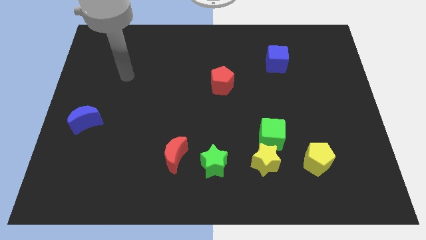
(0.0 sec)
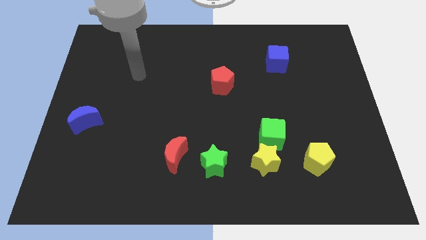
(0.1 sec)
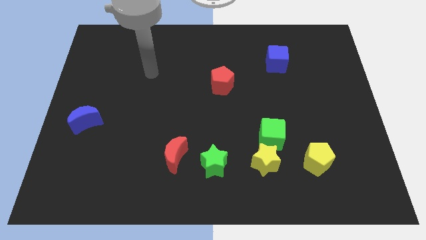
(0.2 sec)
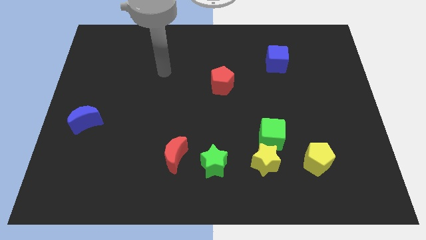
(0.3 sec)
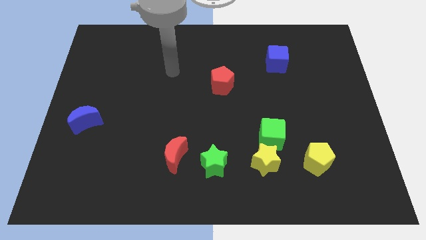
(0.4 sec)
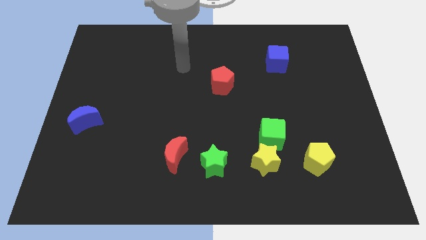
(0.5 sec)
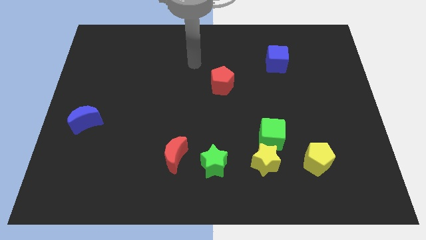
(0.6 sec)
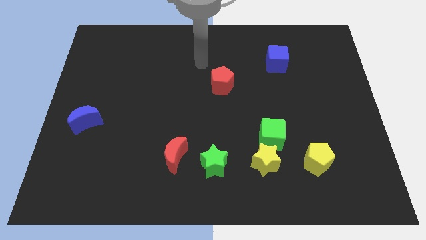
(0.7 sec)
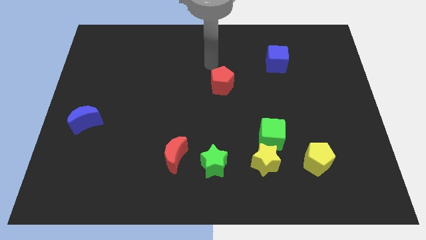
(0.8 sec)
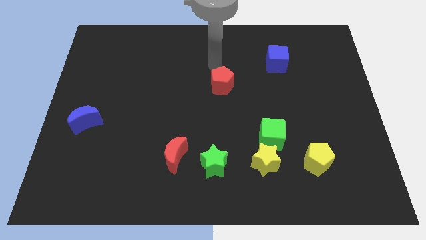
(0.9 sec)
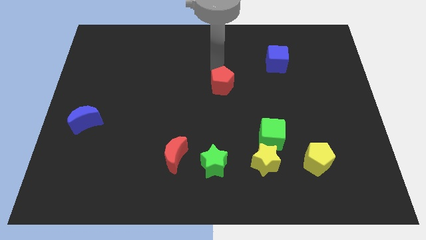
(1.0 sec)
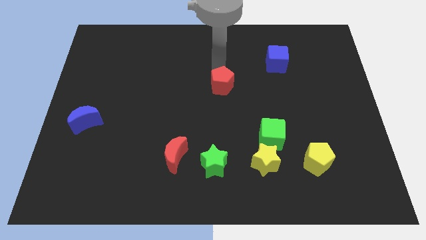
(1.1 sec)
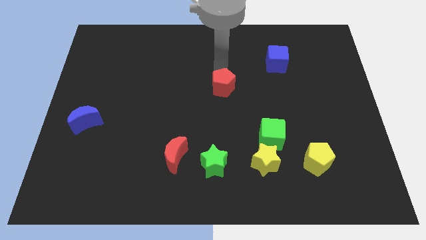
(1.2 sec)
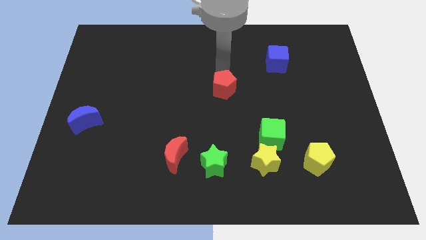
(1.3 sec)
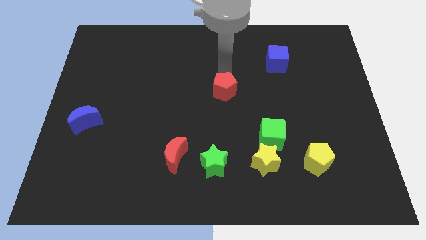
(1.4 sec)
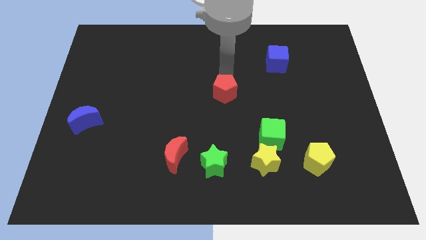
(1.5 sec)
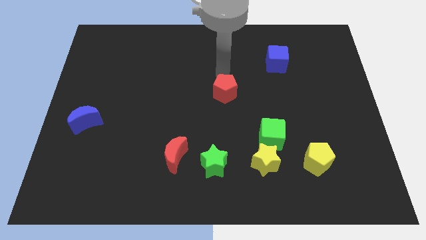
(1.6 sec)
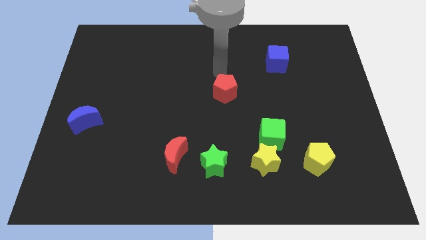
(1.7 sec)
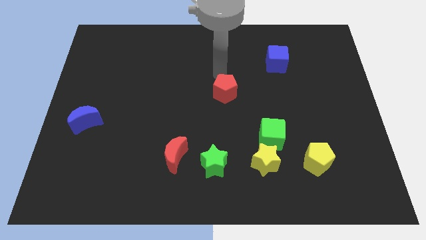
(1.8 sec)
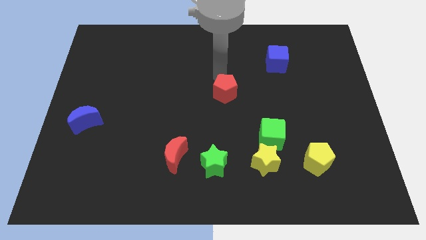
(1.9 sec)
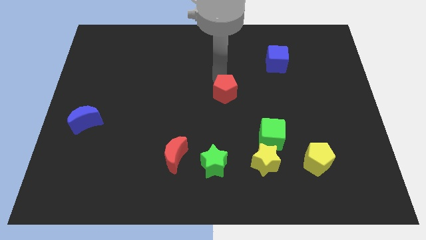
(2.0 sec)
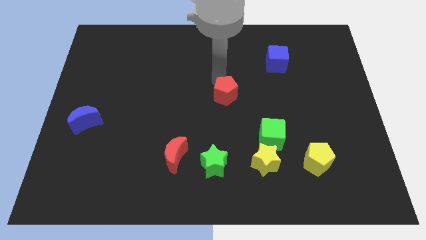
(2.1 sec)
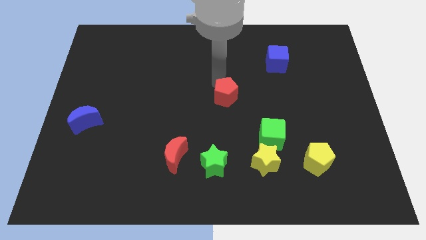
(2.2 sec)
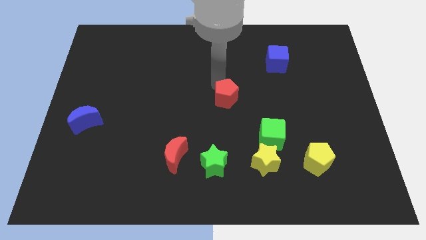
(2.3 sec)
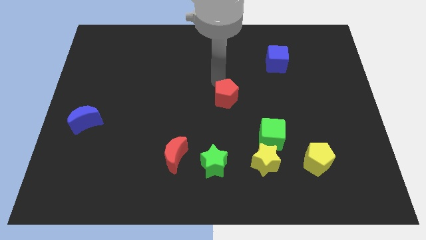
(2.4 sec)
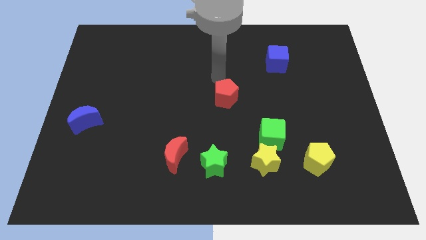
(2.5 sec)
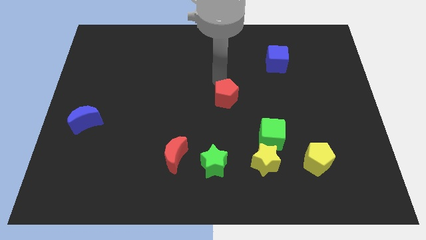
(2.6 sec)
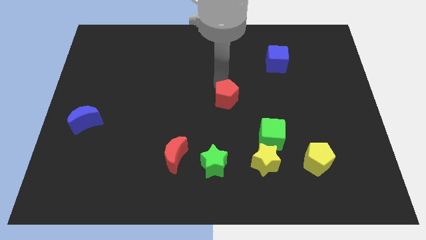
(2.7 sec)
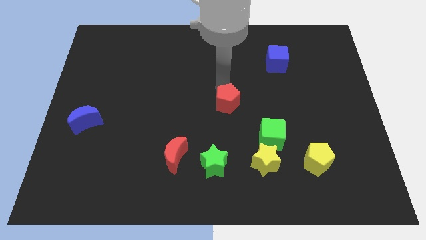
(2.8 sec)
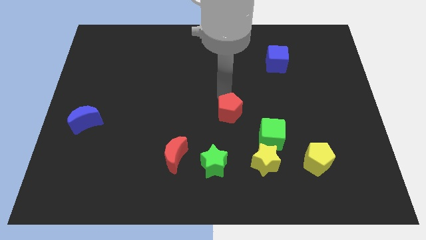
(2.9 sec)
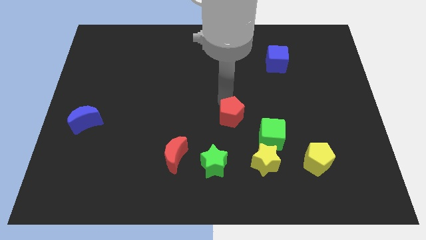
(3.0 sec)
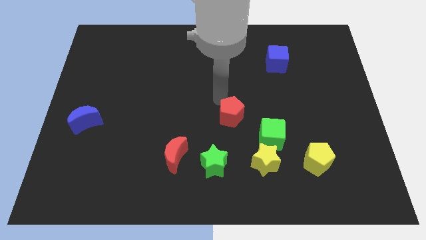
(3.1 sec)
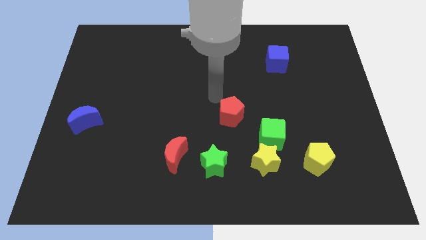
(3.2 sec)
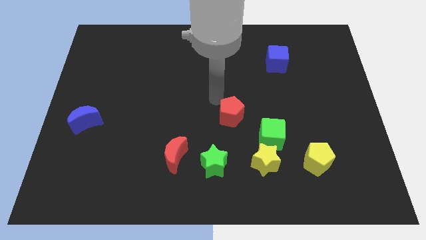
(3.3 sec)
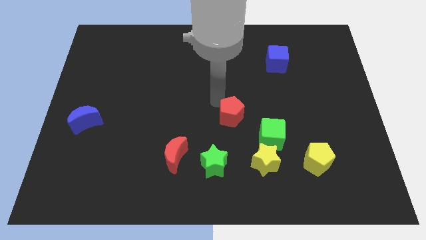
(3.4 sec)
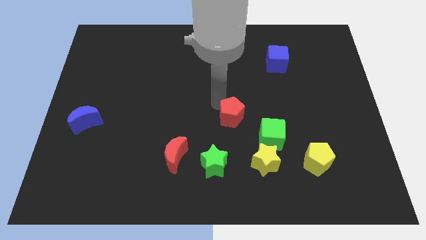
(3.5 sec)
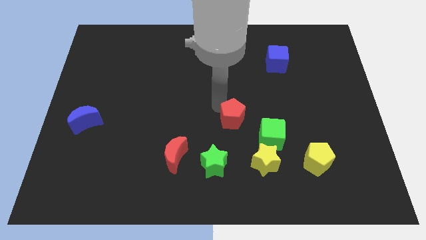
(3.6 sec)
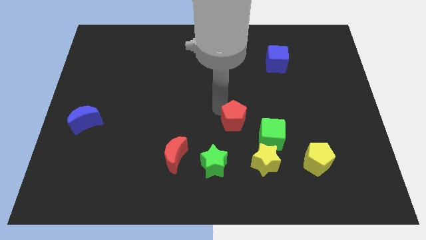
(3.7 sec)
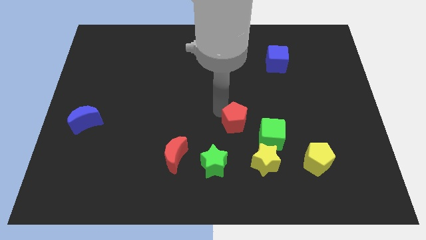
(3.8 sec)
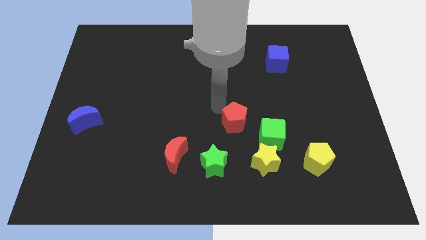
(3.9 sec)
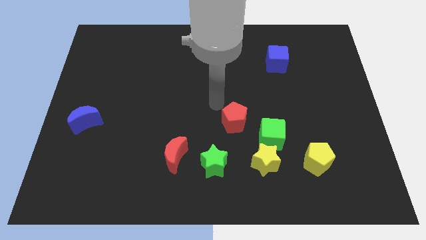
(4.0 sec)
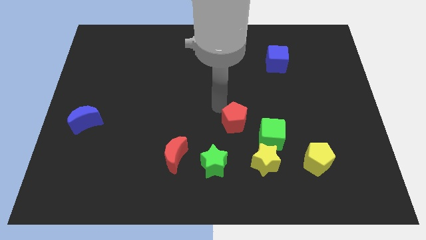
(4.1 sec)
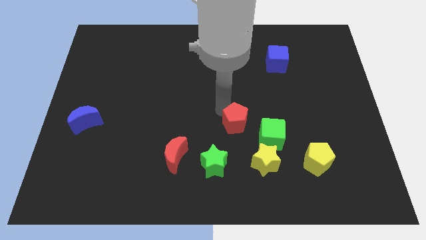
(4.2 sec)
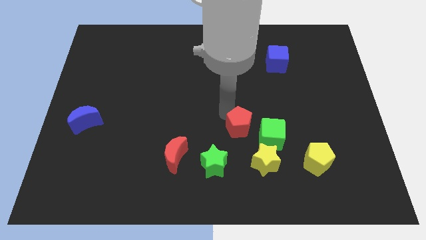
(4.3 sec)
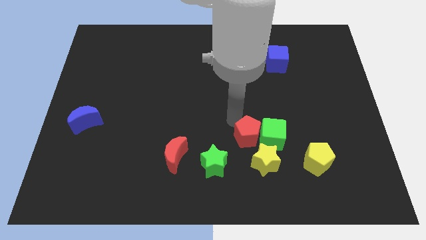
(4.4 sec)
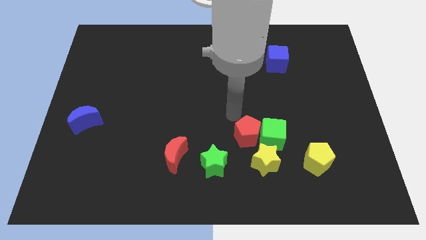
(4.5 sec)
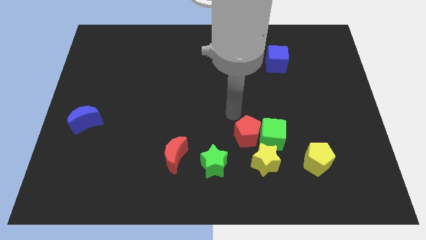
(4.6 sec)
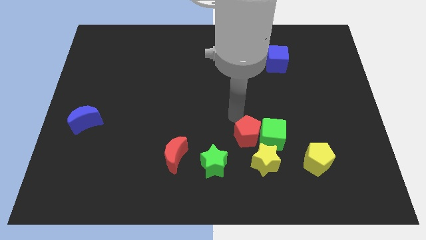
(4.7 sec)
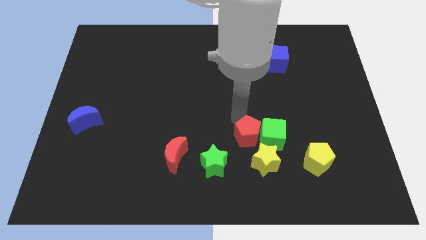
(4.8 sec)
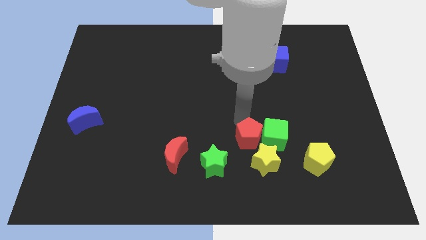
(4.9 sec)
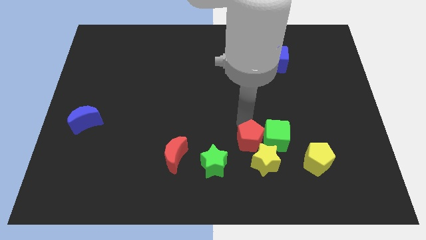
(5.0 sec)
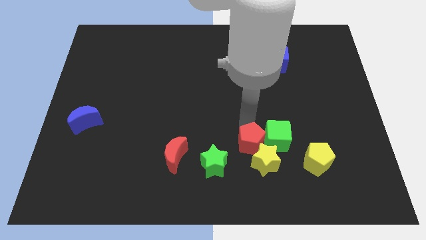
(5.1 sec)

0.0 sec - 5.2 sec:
slide the red pentagon towards the yellow star

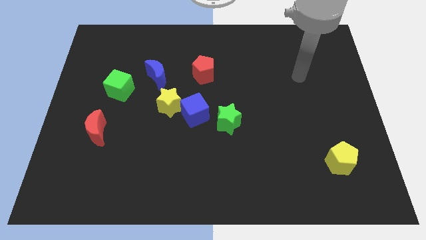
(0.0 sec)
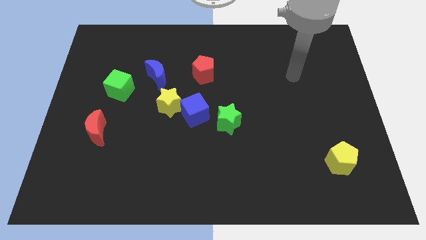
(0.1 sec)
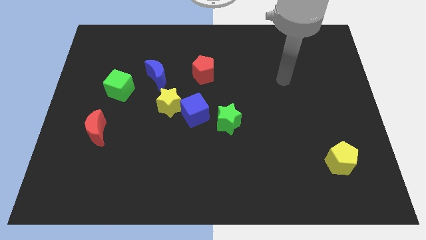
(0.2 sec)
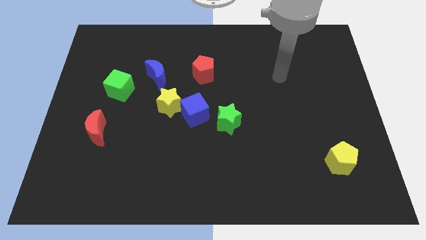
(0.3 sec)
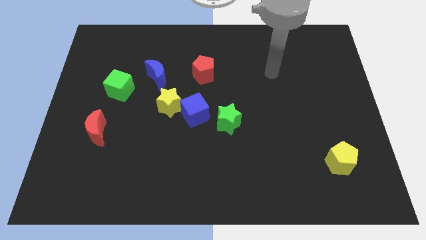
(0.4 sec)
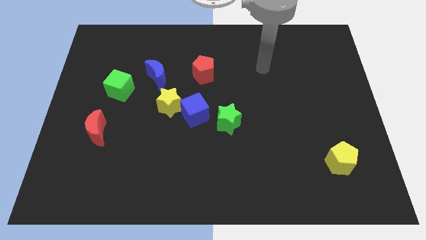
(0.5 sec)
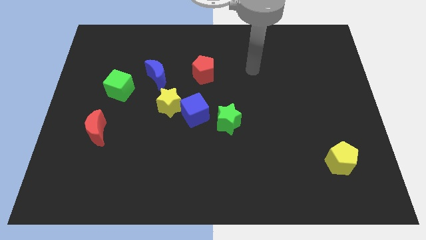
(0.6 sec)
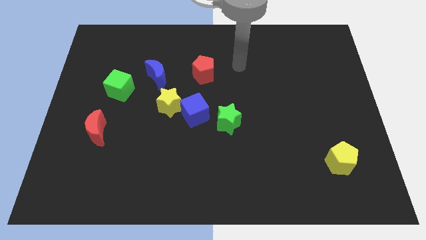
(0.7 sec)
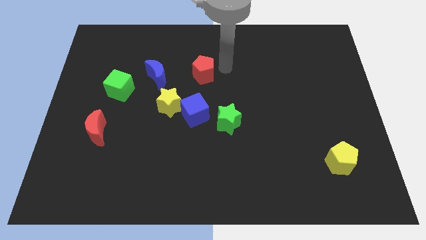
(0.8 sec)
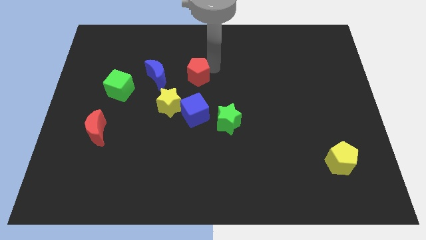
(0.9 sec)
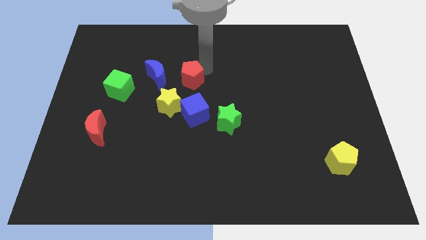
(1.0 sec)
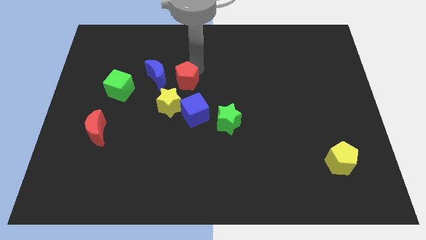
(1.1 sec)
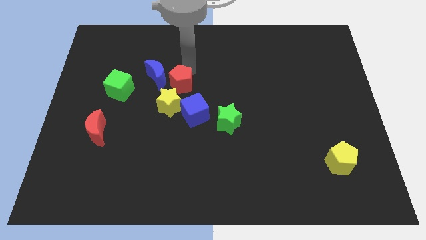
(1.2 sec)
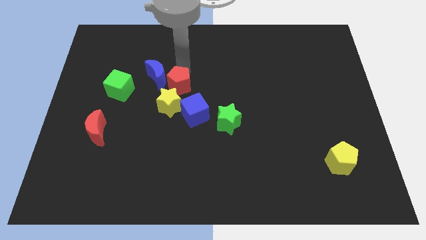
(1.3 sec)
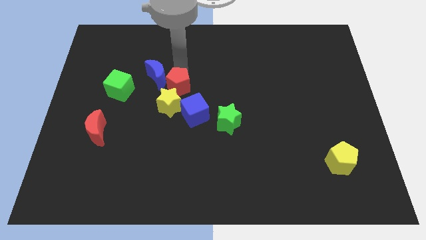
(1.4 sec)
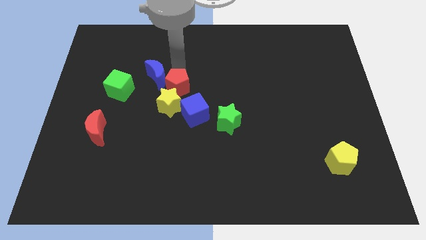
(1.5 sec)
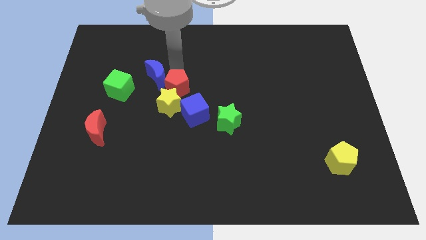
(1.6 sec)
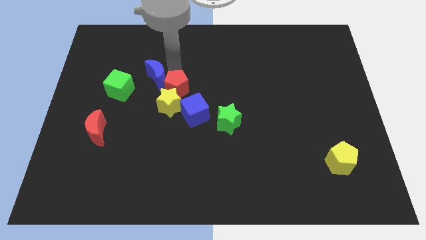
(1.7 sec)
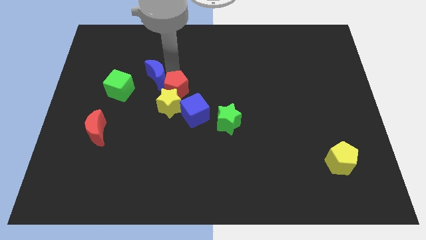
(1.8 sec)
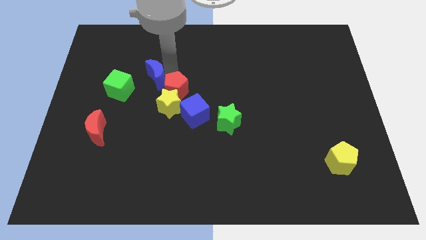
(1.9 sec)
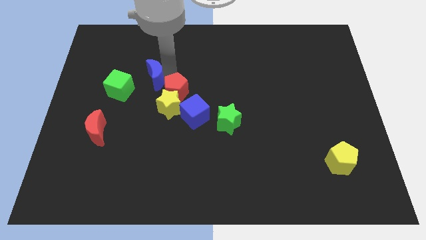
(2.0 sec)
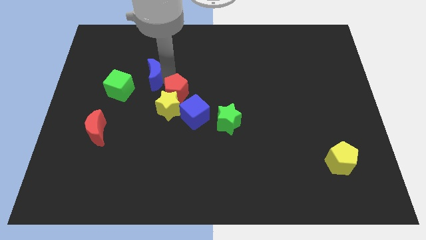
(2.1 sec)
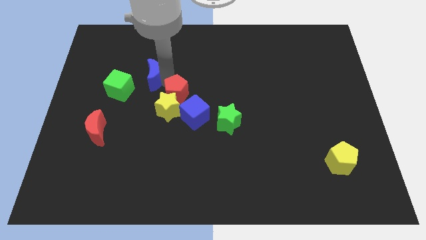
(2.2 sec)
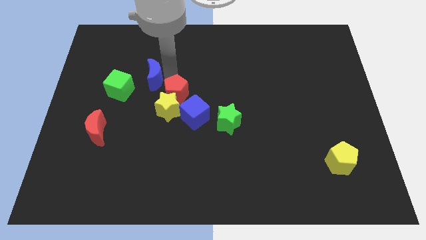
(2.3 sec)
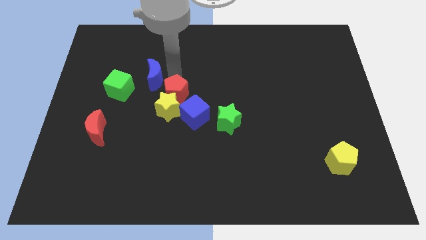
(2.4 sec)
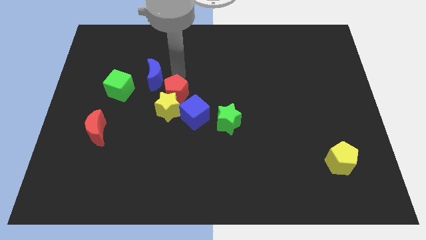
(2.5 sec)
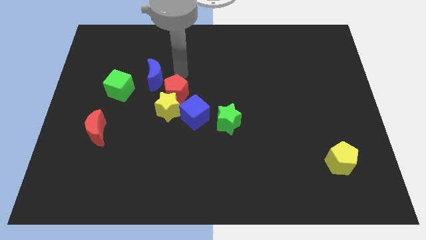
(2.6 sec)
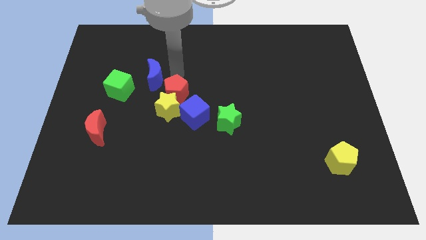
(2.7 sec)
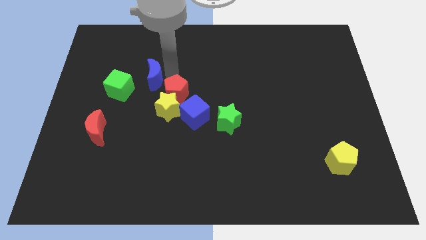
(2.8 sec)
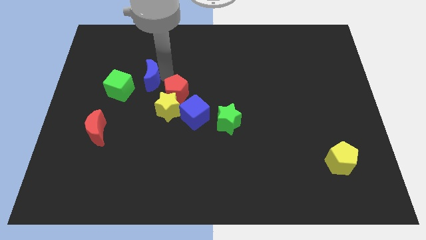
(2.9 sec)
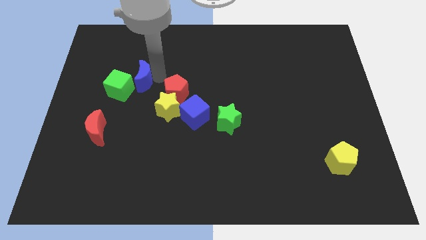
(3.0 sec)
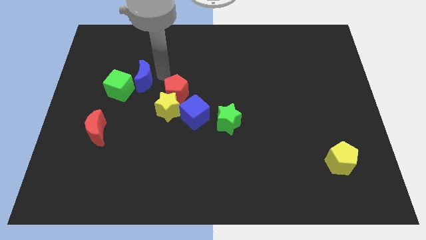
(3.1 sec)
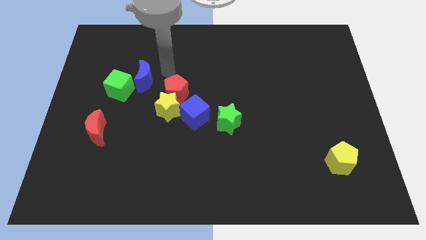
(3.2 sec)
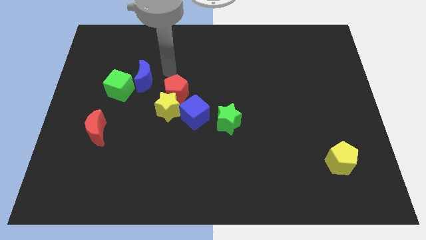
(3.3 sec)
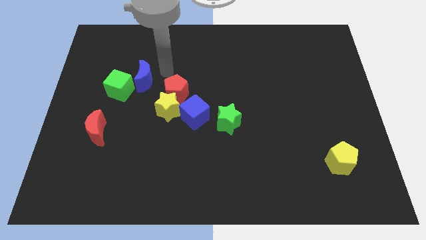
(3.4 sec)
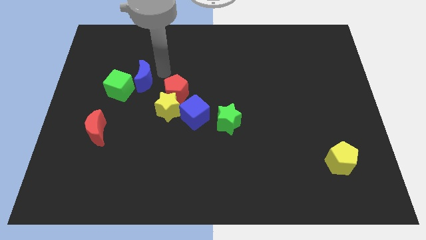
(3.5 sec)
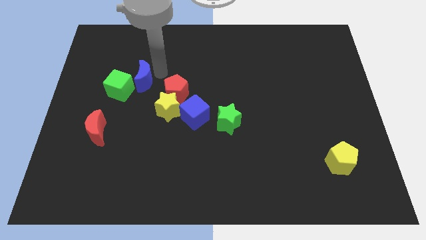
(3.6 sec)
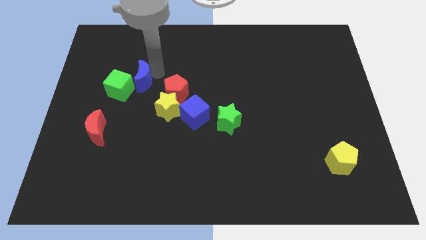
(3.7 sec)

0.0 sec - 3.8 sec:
put the blue moon close to the green cube
